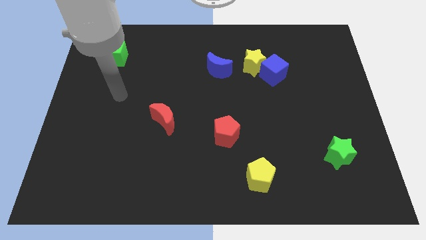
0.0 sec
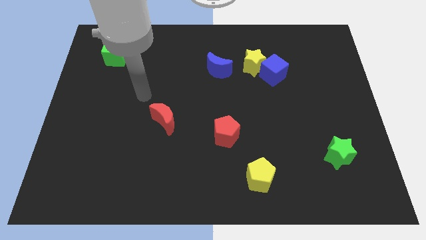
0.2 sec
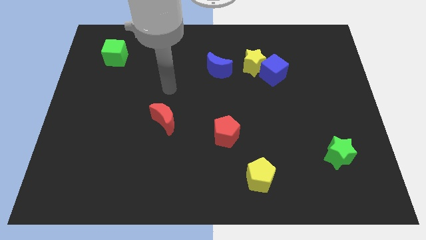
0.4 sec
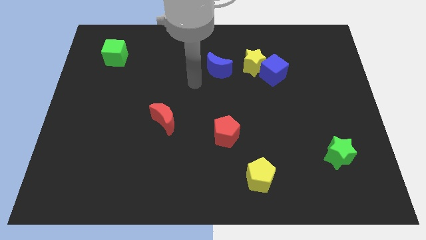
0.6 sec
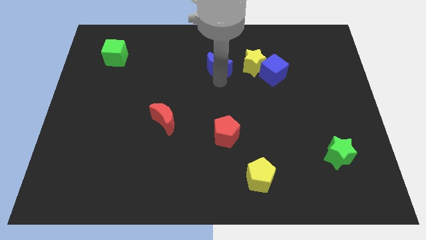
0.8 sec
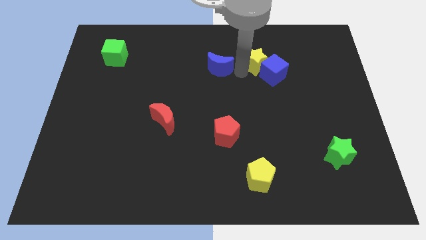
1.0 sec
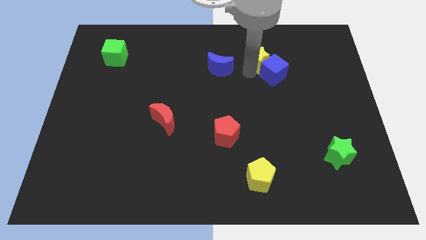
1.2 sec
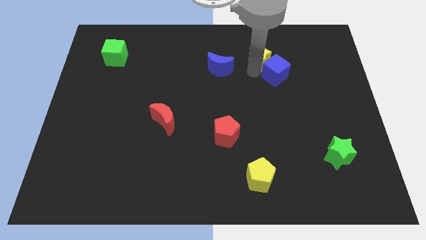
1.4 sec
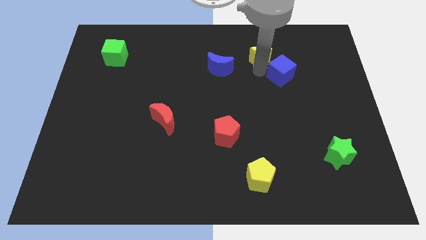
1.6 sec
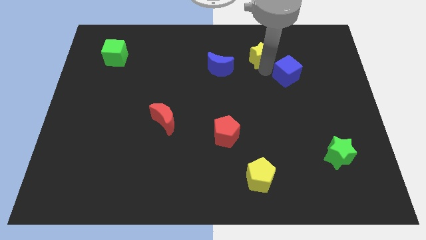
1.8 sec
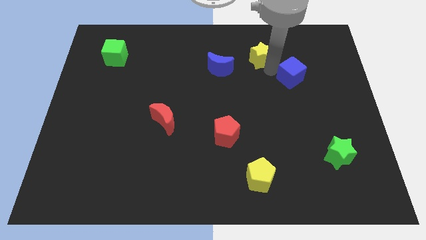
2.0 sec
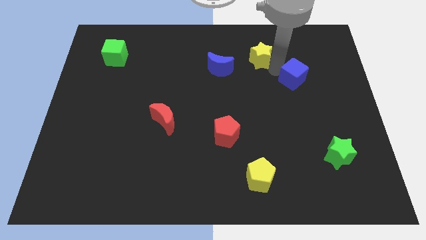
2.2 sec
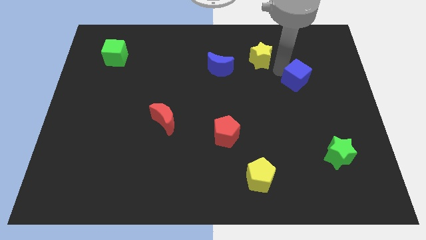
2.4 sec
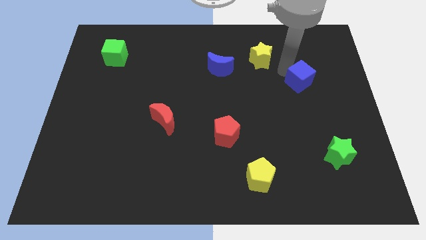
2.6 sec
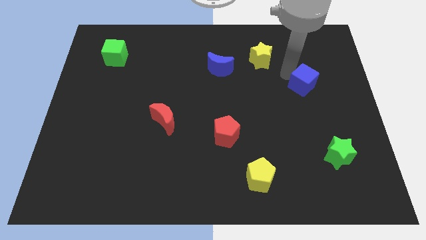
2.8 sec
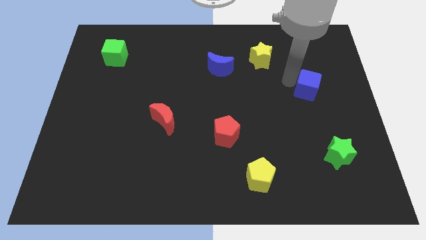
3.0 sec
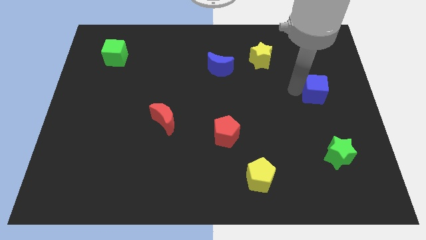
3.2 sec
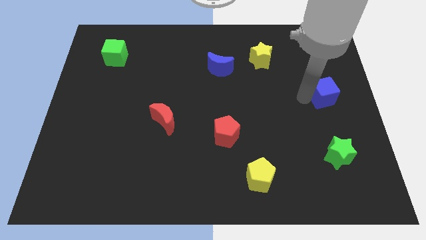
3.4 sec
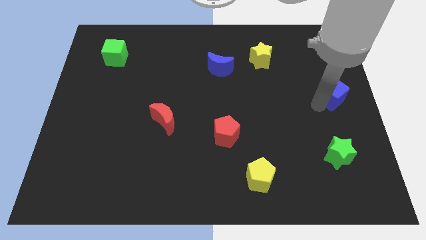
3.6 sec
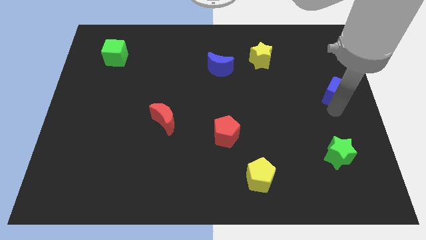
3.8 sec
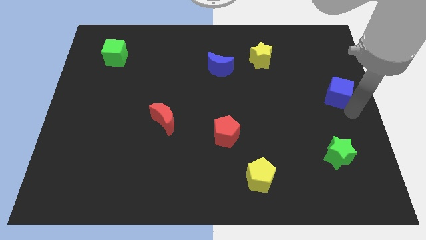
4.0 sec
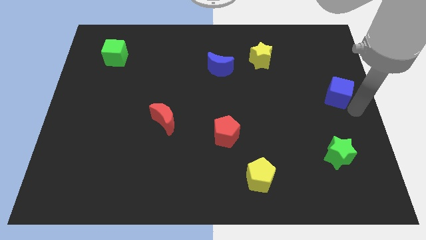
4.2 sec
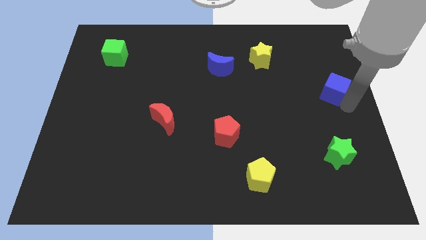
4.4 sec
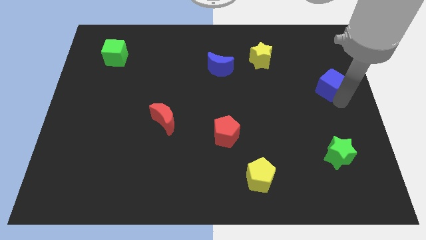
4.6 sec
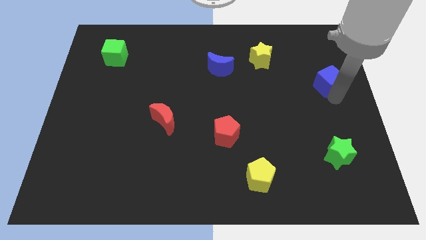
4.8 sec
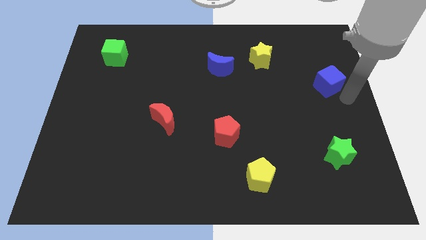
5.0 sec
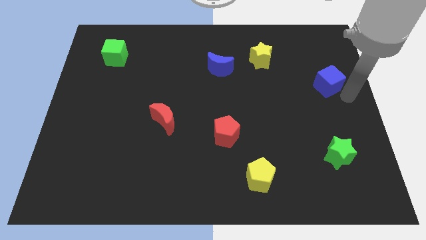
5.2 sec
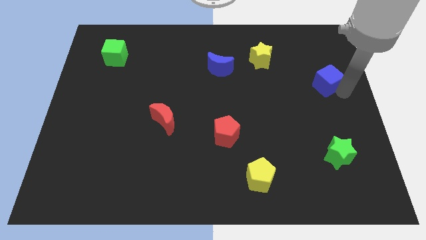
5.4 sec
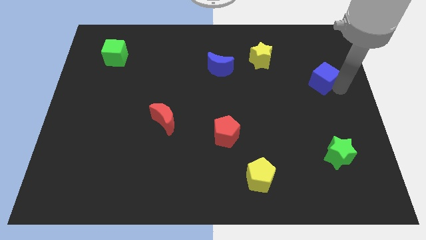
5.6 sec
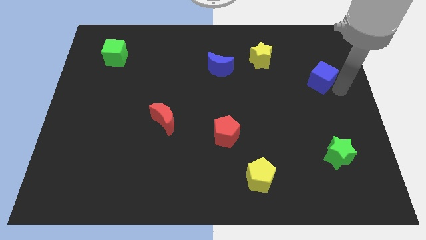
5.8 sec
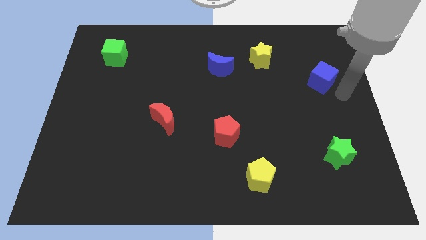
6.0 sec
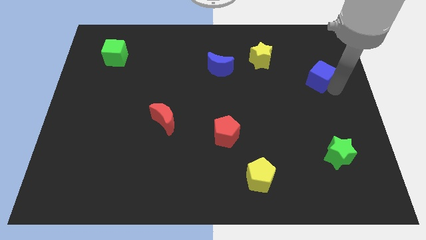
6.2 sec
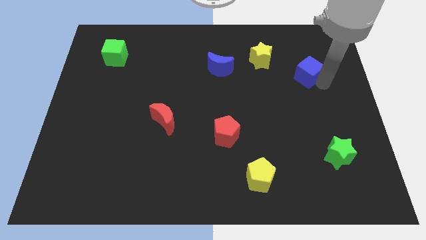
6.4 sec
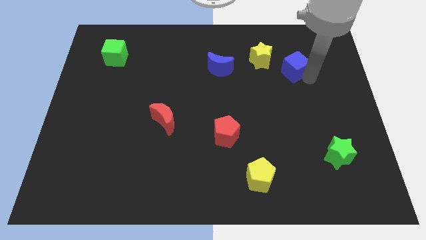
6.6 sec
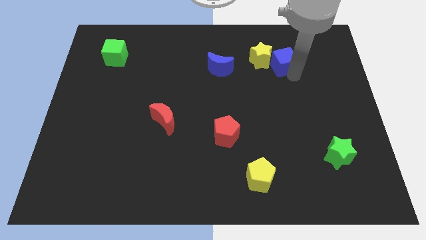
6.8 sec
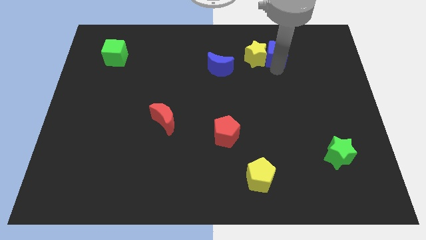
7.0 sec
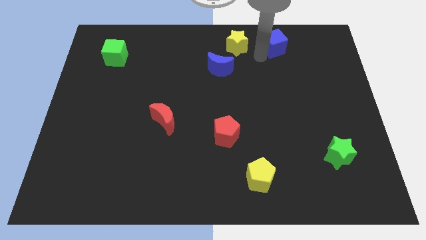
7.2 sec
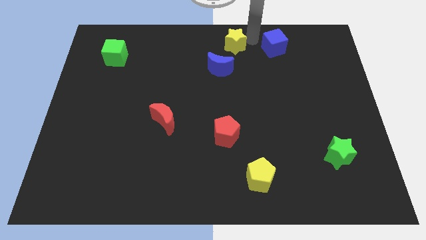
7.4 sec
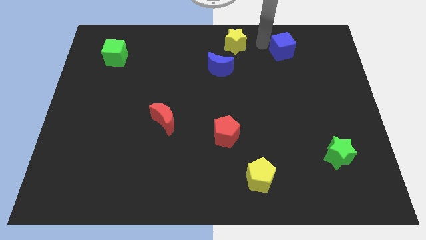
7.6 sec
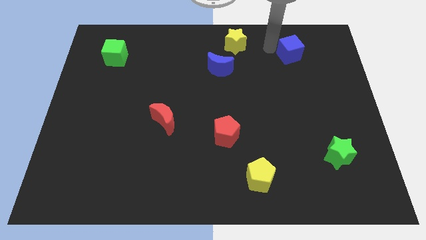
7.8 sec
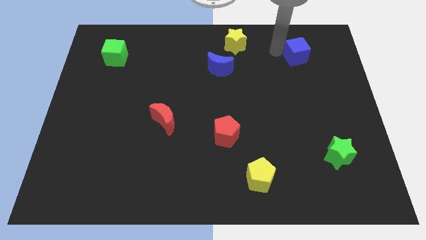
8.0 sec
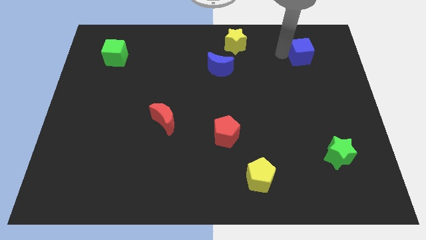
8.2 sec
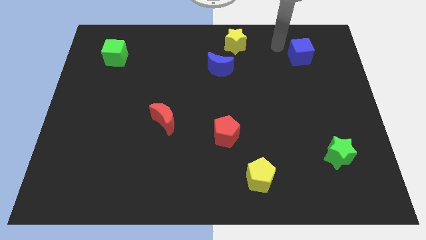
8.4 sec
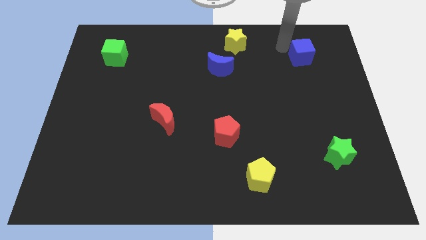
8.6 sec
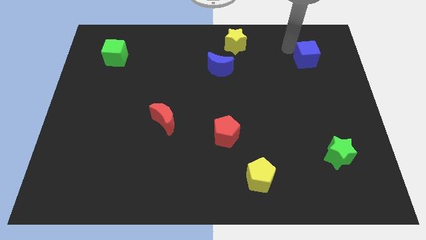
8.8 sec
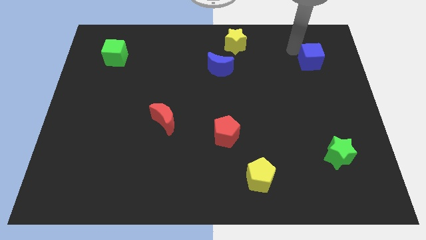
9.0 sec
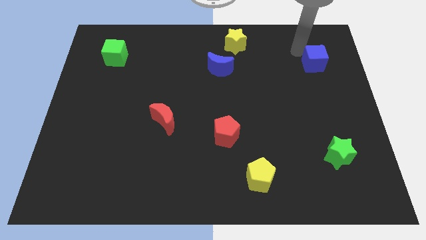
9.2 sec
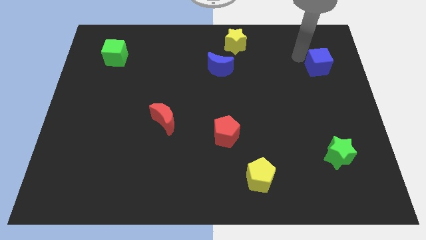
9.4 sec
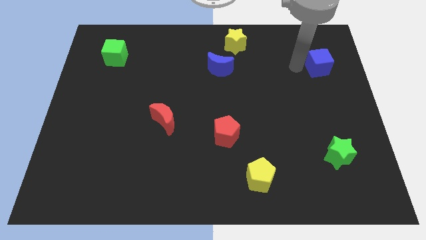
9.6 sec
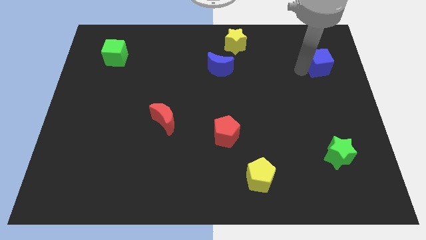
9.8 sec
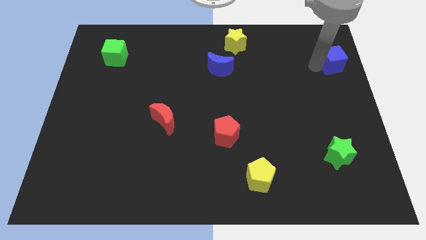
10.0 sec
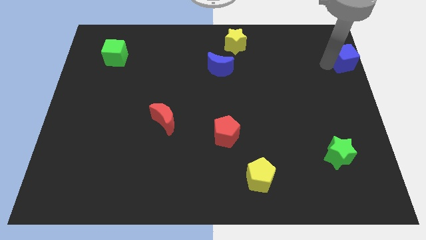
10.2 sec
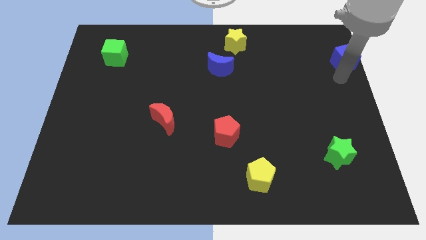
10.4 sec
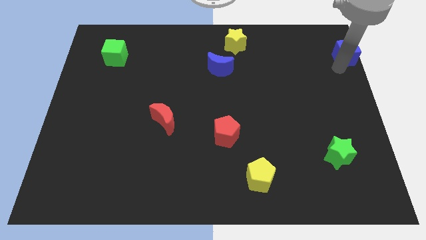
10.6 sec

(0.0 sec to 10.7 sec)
slide the blue cube to the top right

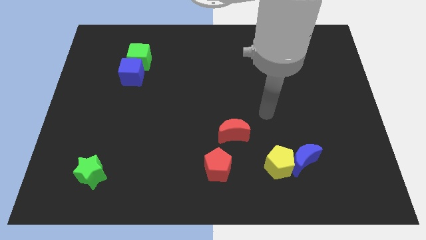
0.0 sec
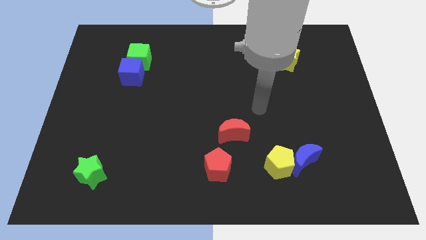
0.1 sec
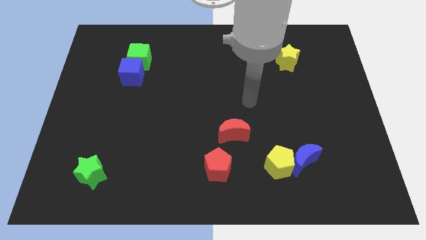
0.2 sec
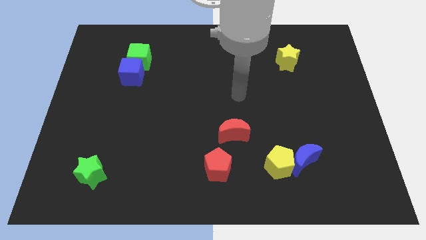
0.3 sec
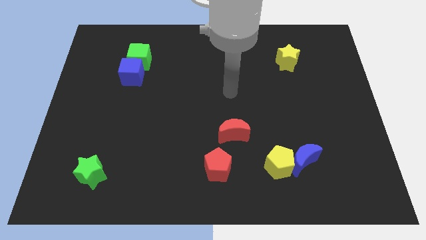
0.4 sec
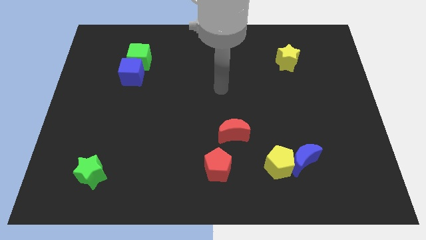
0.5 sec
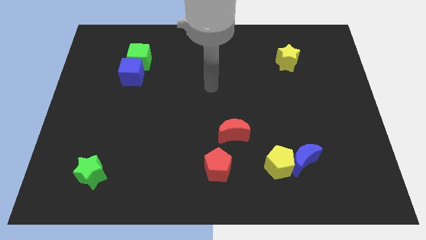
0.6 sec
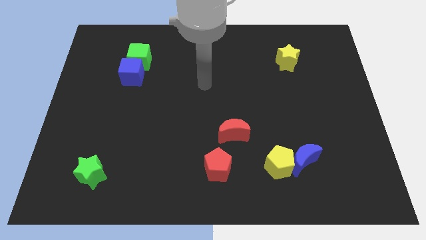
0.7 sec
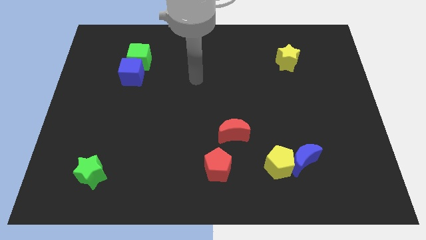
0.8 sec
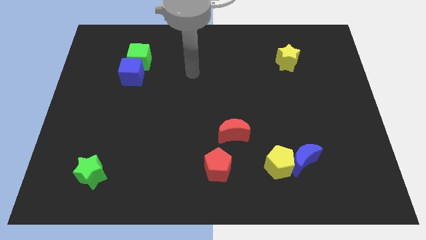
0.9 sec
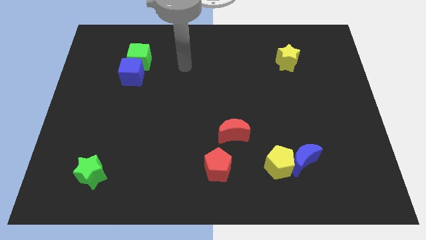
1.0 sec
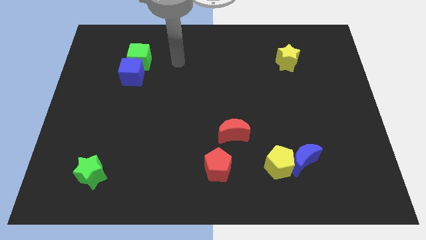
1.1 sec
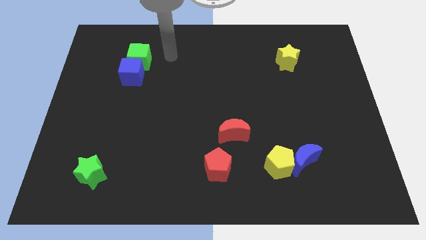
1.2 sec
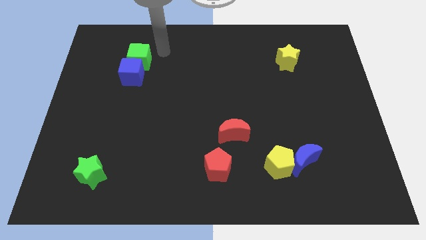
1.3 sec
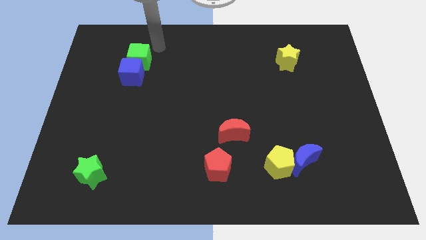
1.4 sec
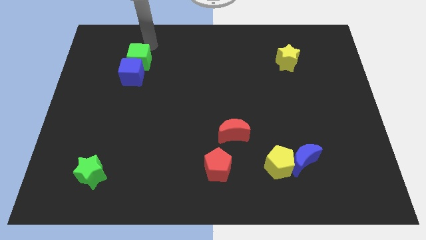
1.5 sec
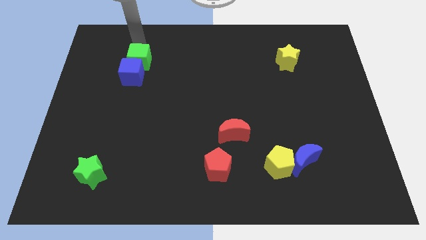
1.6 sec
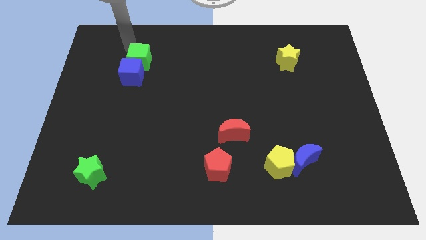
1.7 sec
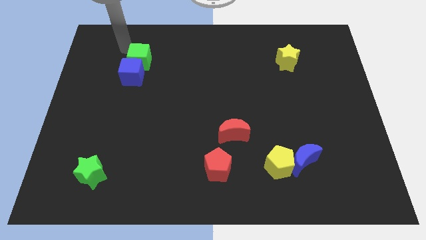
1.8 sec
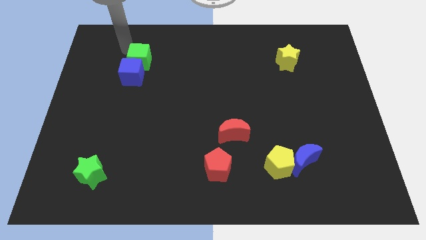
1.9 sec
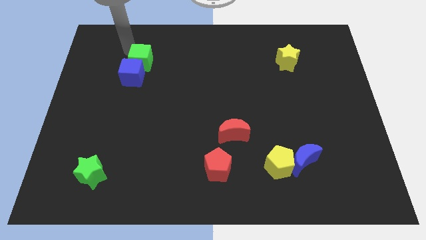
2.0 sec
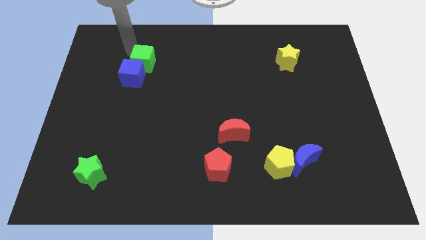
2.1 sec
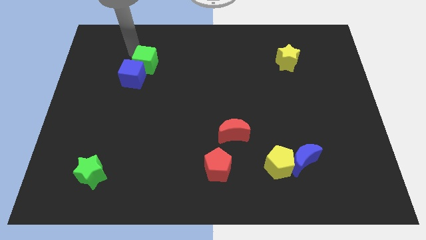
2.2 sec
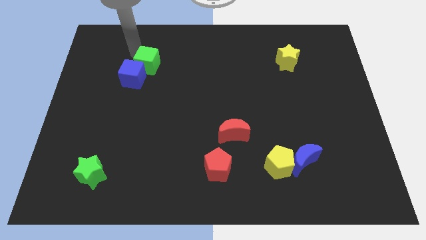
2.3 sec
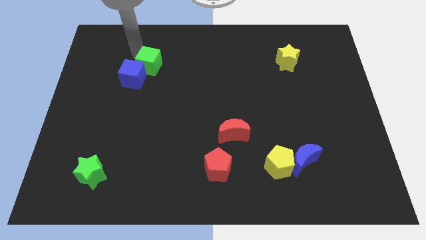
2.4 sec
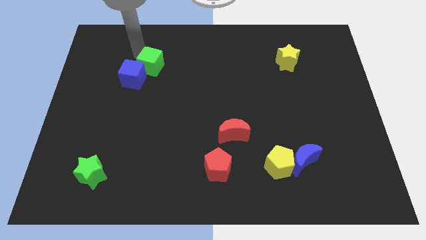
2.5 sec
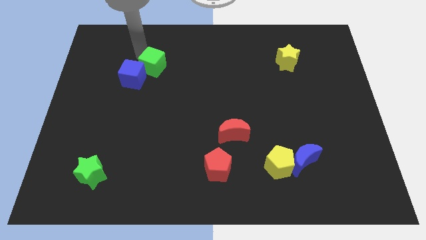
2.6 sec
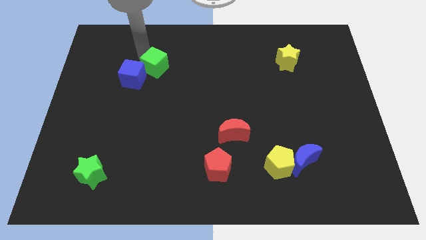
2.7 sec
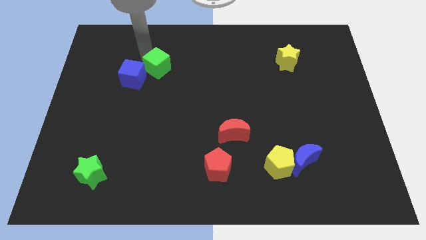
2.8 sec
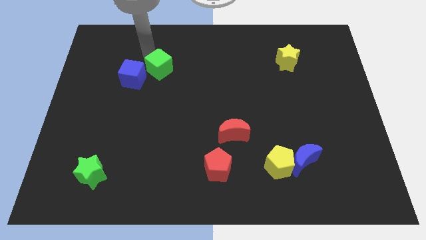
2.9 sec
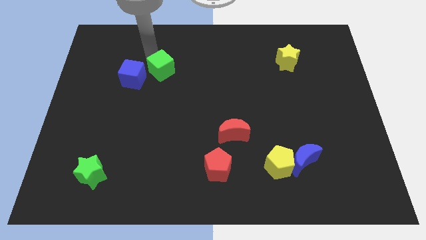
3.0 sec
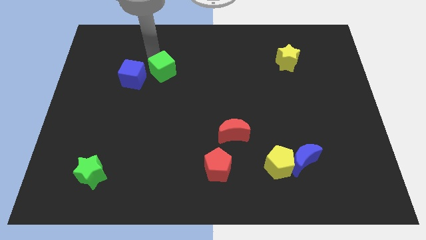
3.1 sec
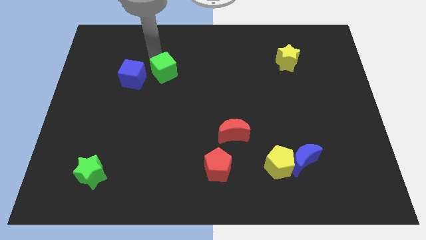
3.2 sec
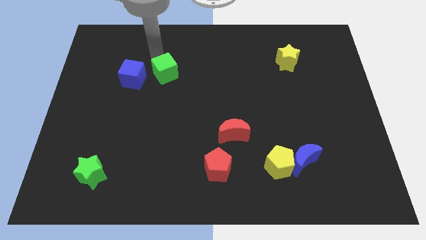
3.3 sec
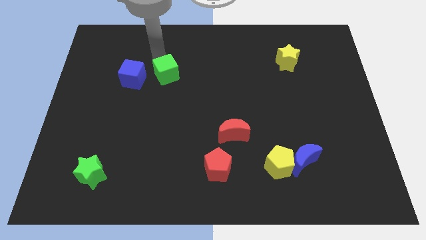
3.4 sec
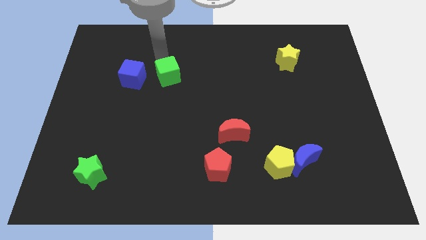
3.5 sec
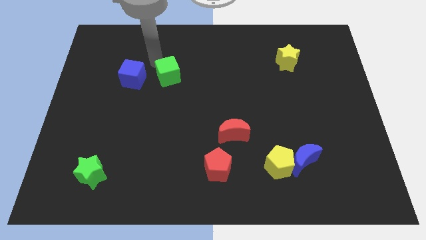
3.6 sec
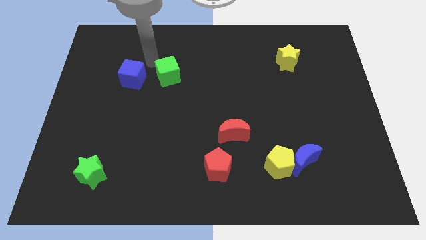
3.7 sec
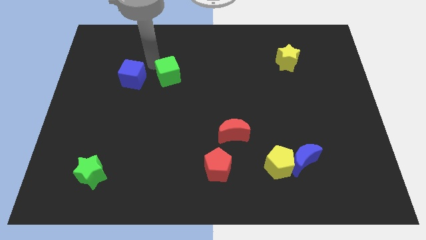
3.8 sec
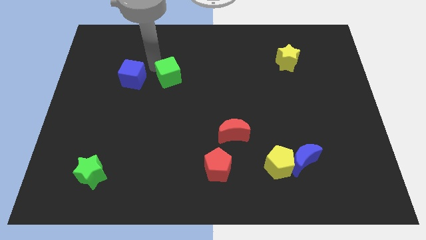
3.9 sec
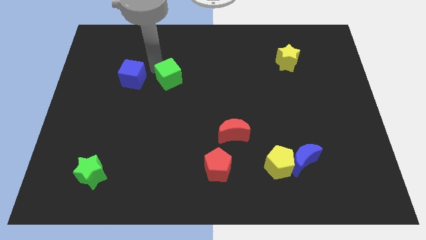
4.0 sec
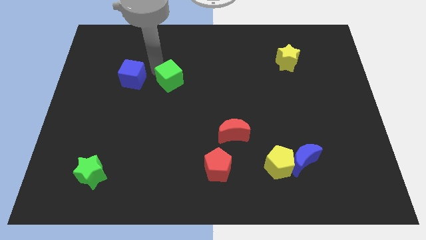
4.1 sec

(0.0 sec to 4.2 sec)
move the green cube to the middle of the board
